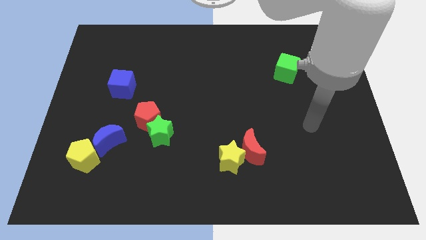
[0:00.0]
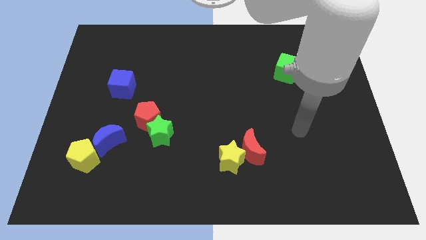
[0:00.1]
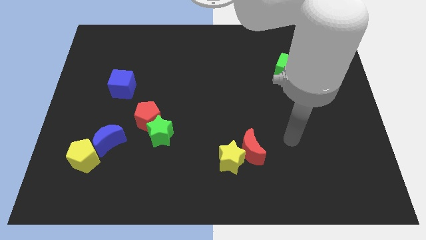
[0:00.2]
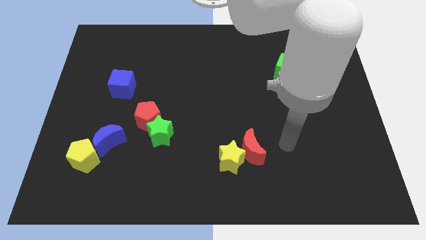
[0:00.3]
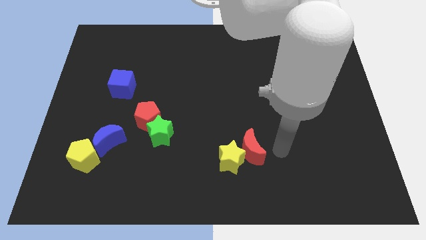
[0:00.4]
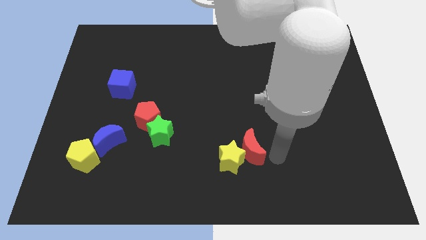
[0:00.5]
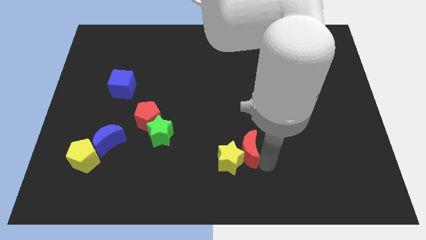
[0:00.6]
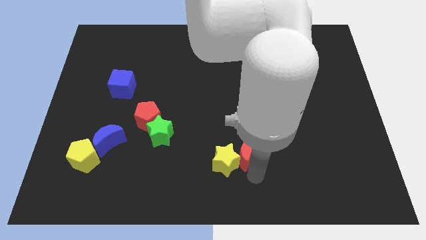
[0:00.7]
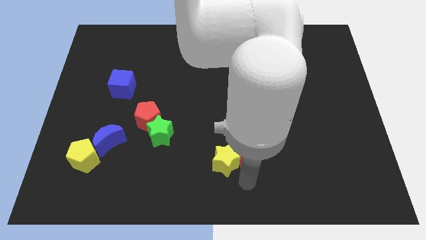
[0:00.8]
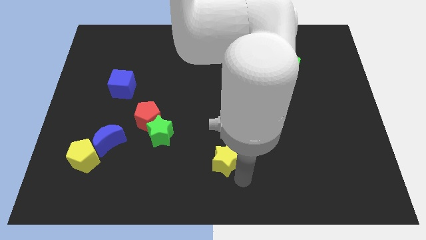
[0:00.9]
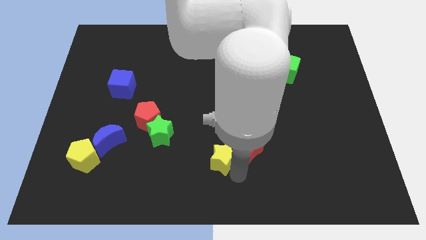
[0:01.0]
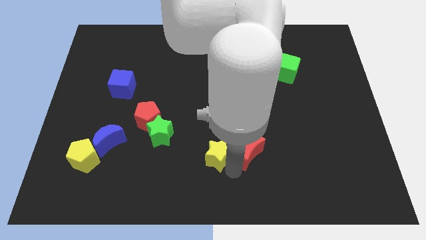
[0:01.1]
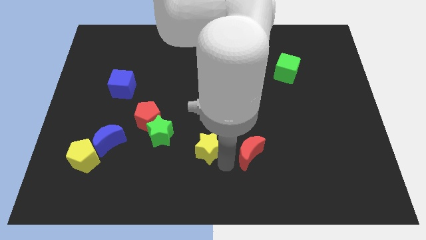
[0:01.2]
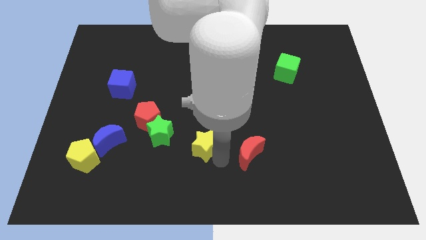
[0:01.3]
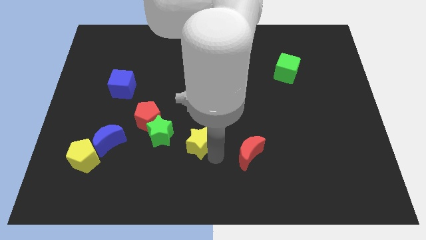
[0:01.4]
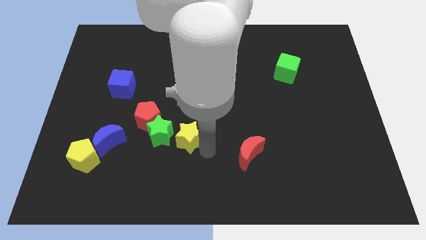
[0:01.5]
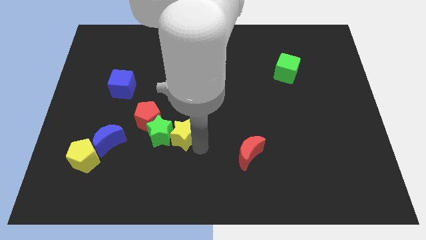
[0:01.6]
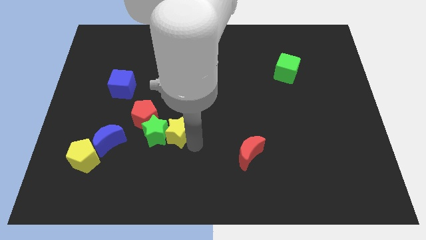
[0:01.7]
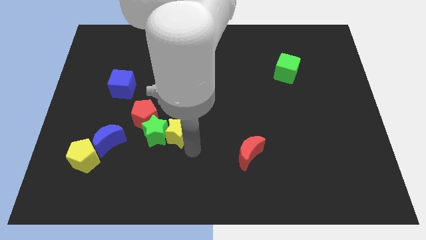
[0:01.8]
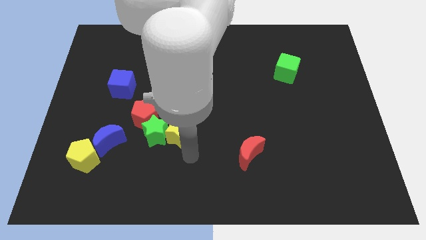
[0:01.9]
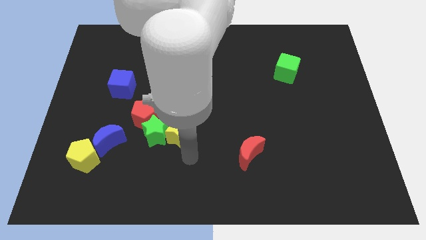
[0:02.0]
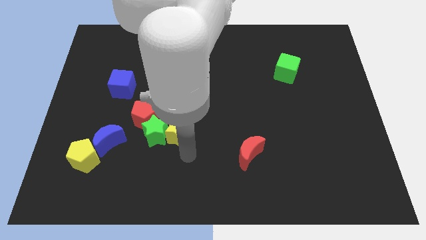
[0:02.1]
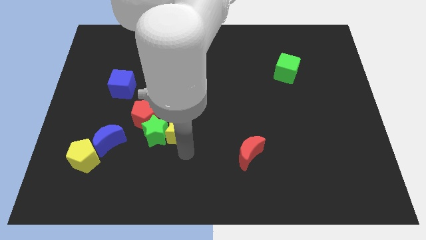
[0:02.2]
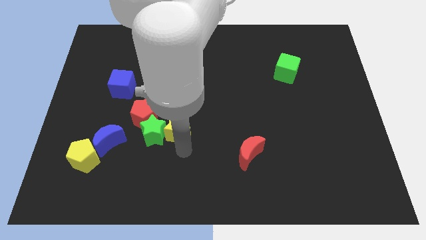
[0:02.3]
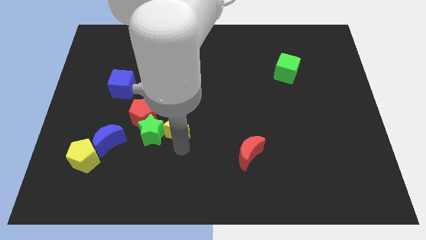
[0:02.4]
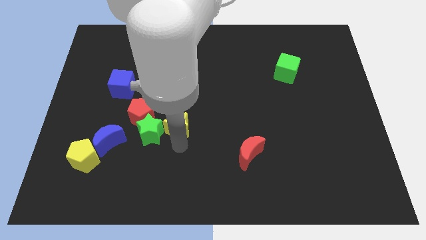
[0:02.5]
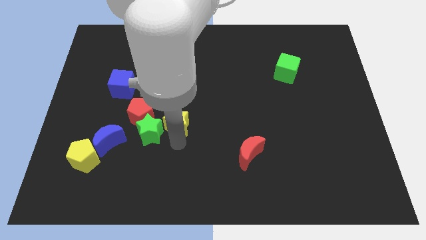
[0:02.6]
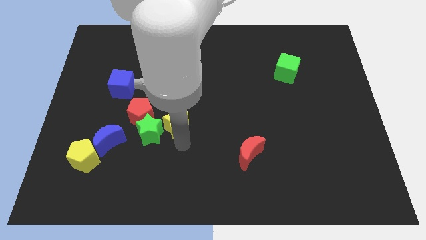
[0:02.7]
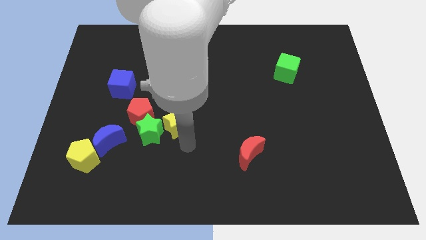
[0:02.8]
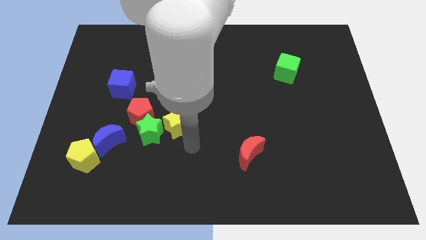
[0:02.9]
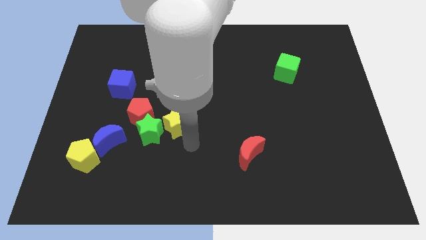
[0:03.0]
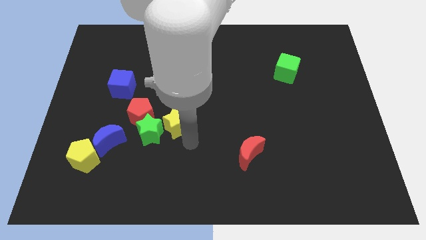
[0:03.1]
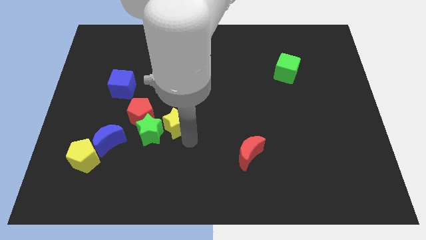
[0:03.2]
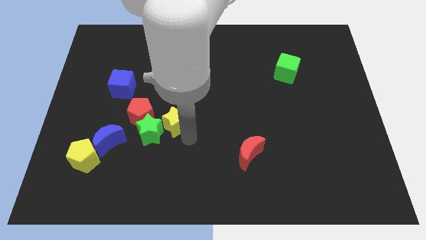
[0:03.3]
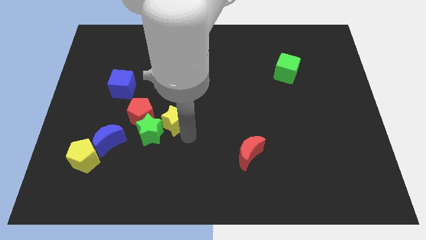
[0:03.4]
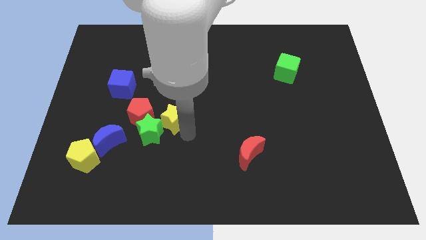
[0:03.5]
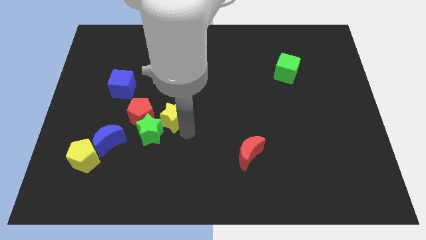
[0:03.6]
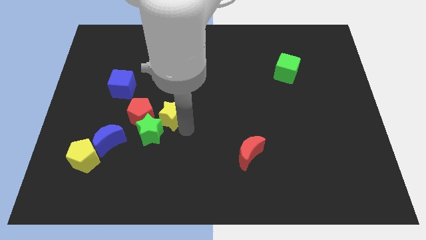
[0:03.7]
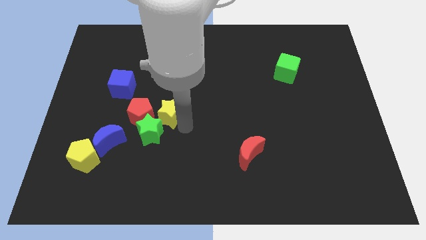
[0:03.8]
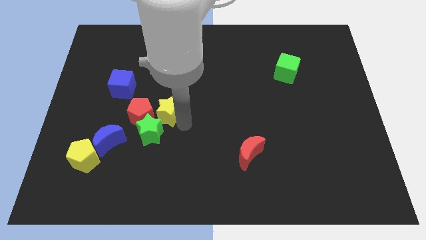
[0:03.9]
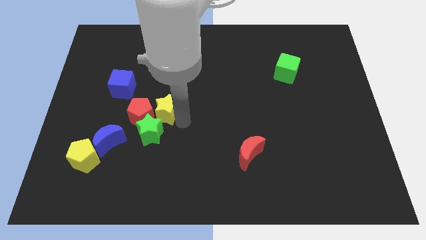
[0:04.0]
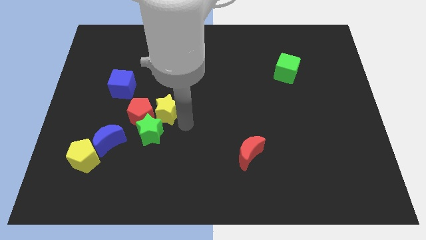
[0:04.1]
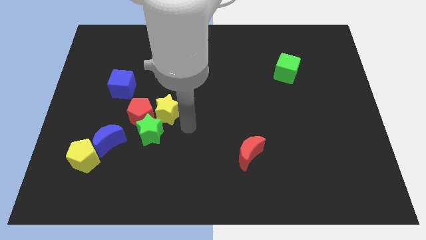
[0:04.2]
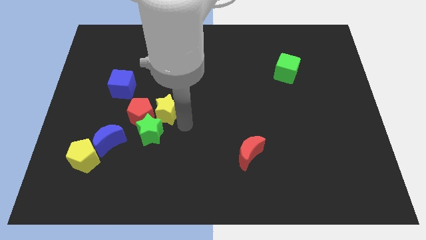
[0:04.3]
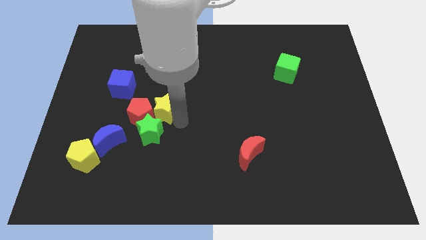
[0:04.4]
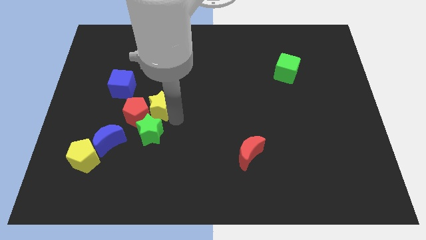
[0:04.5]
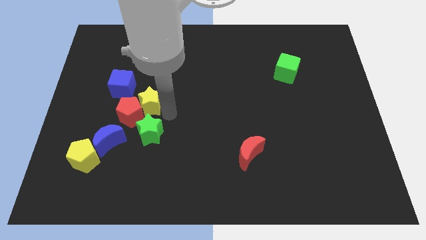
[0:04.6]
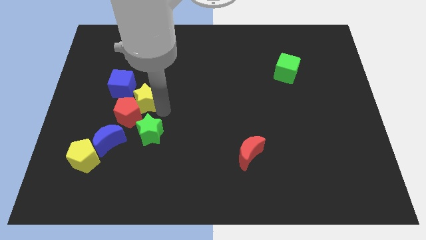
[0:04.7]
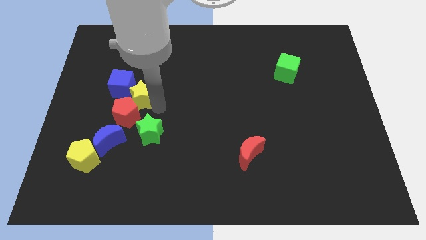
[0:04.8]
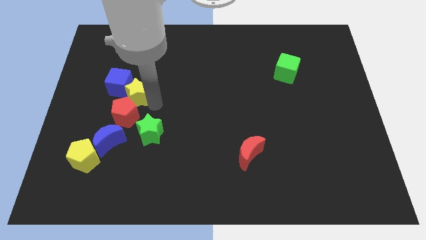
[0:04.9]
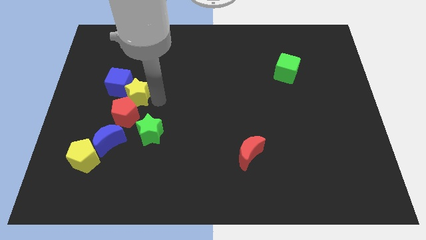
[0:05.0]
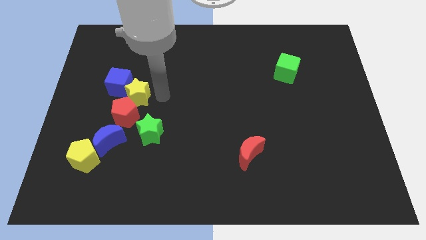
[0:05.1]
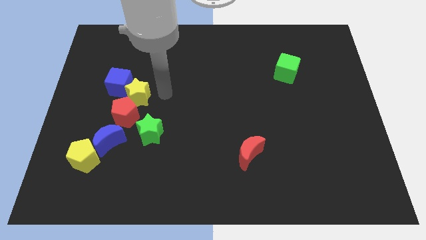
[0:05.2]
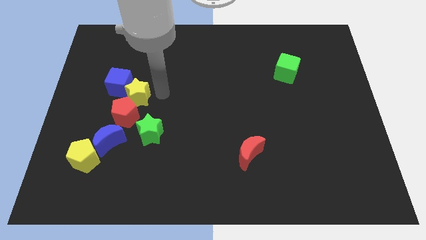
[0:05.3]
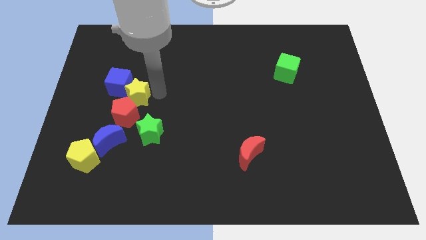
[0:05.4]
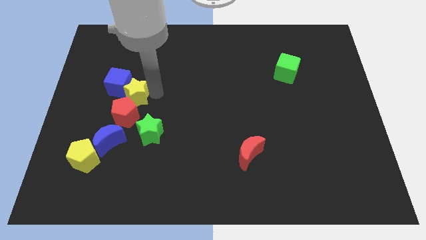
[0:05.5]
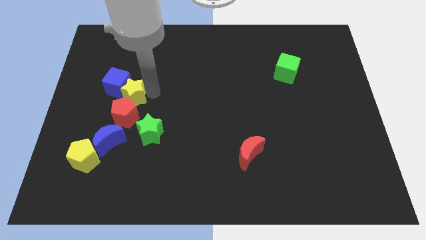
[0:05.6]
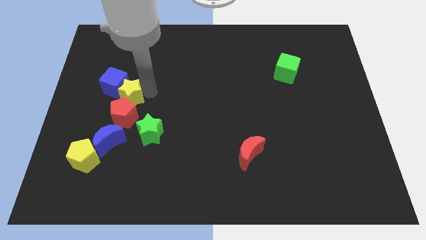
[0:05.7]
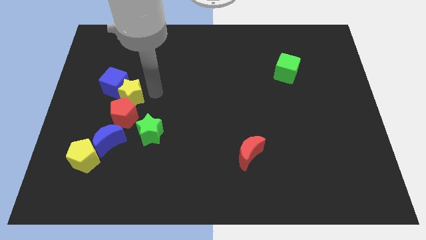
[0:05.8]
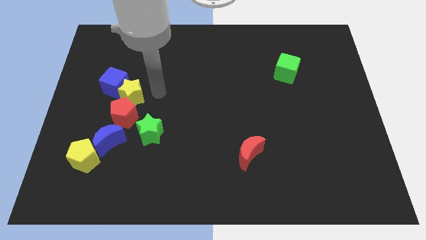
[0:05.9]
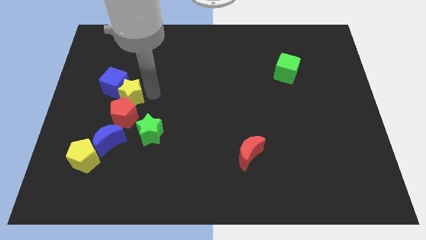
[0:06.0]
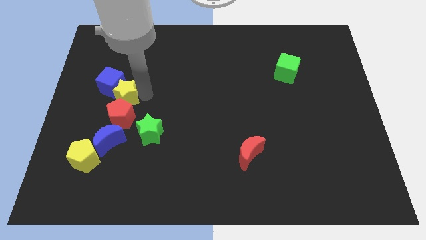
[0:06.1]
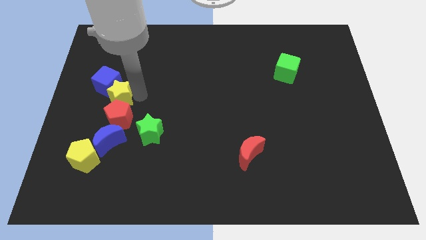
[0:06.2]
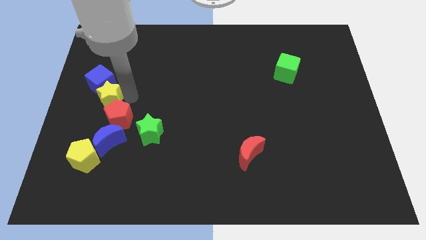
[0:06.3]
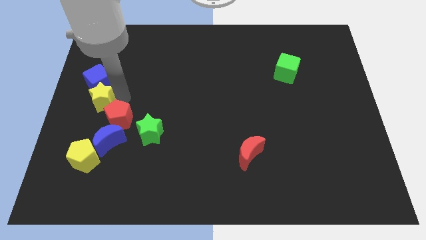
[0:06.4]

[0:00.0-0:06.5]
push the yellow star to the left side
